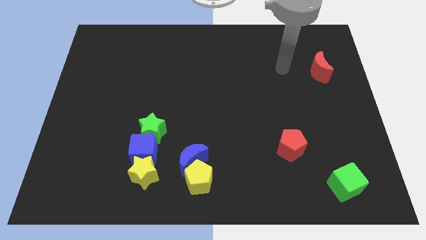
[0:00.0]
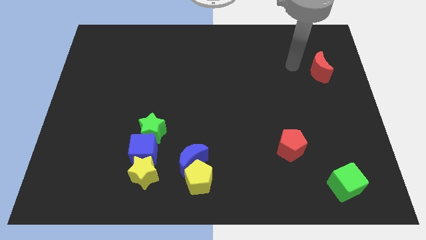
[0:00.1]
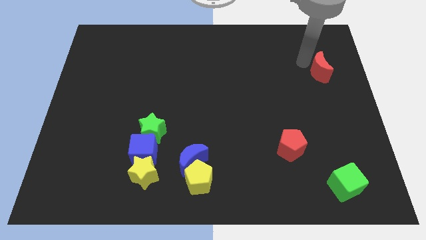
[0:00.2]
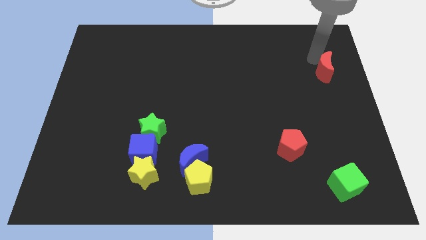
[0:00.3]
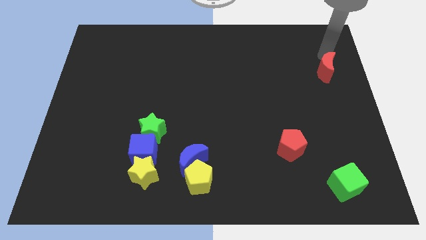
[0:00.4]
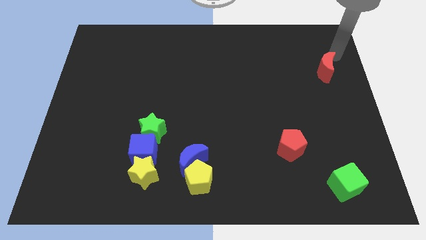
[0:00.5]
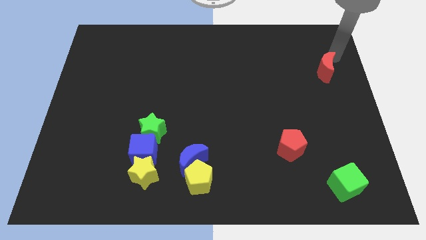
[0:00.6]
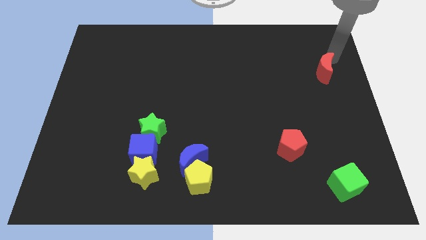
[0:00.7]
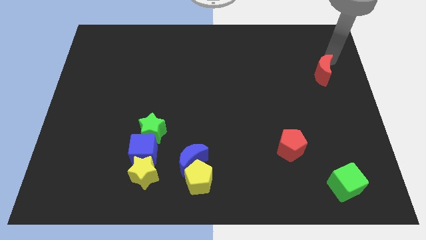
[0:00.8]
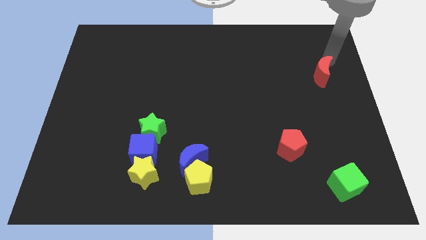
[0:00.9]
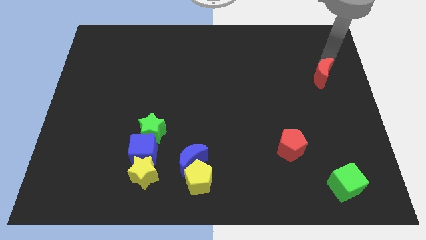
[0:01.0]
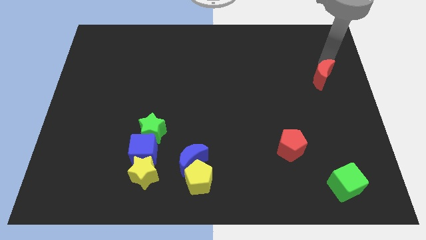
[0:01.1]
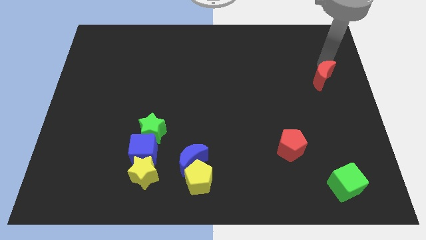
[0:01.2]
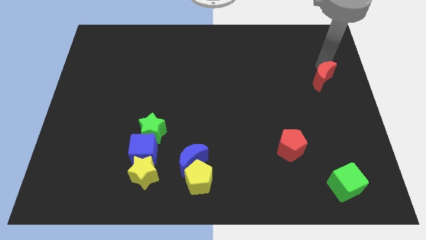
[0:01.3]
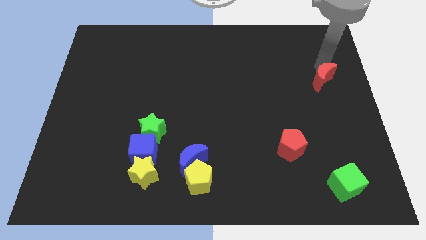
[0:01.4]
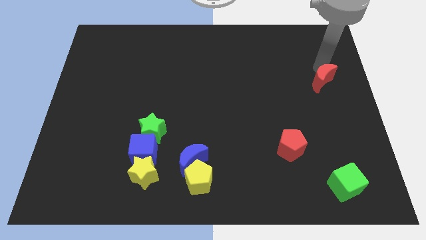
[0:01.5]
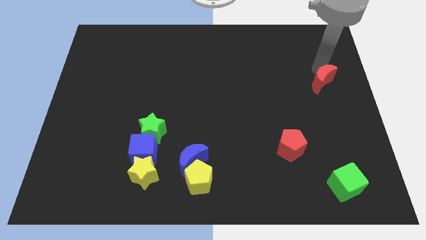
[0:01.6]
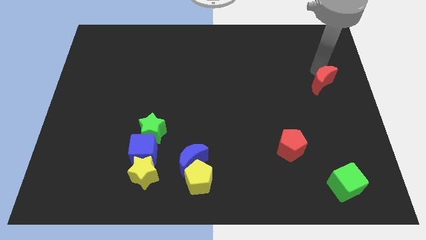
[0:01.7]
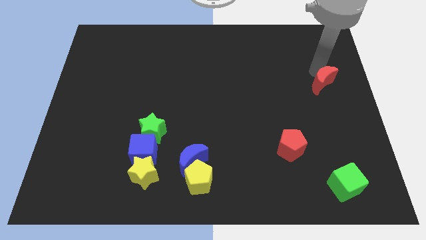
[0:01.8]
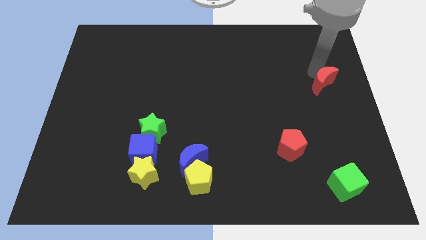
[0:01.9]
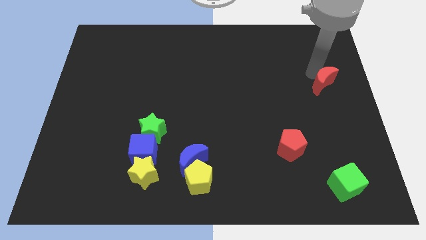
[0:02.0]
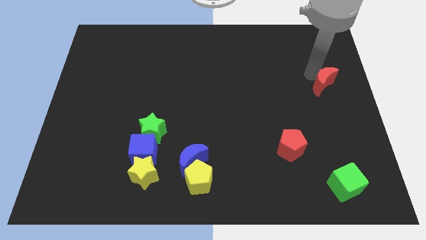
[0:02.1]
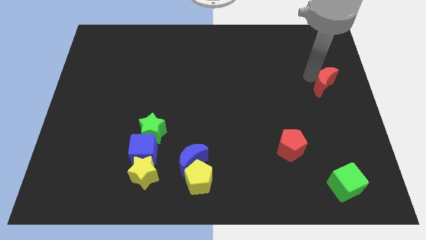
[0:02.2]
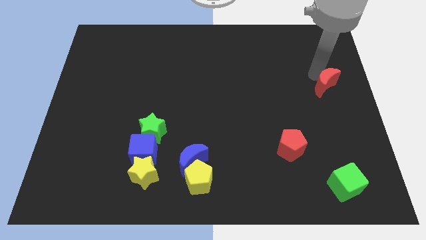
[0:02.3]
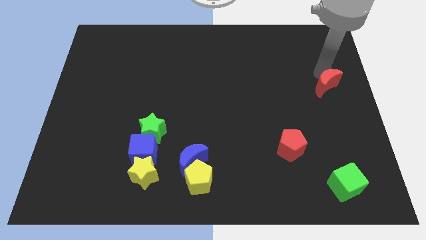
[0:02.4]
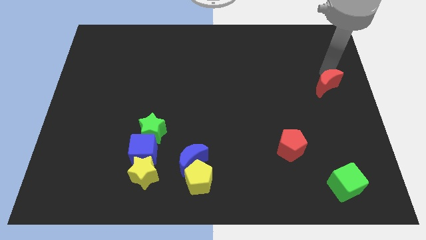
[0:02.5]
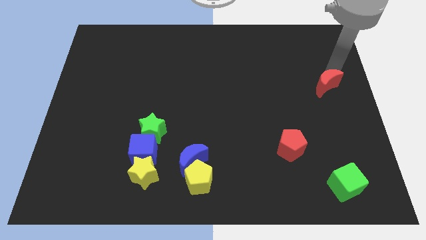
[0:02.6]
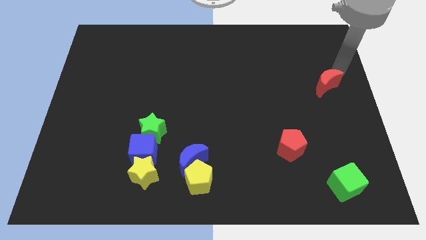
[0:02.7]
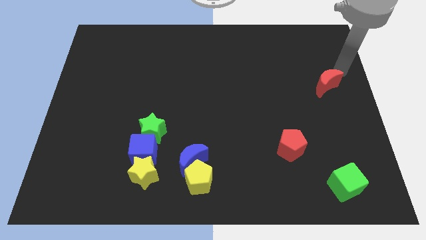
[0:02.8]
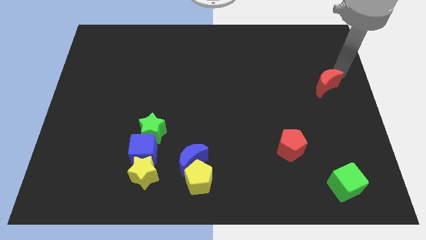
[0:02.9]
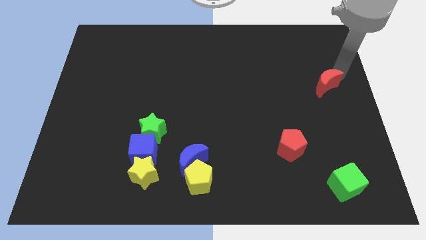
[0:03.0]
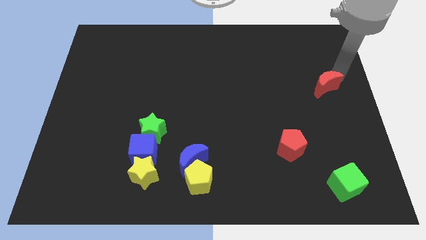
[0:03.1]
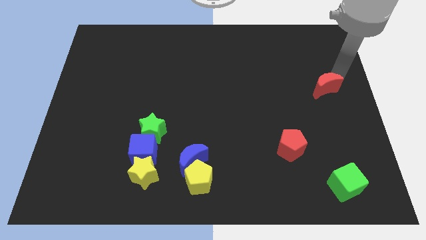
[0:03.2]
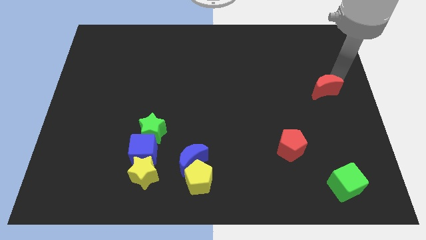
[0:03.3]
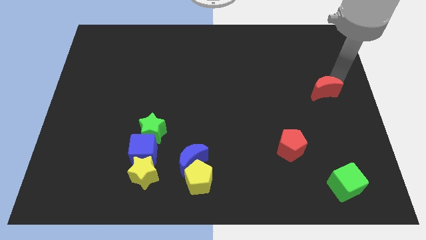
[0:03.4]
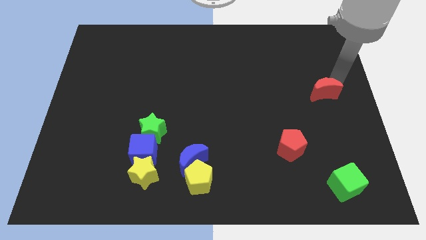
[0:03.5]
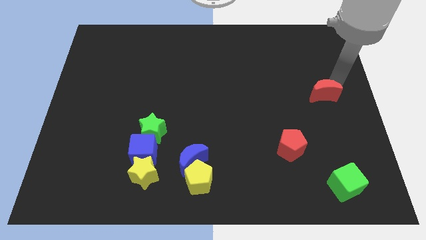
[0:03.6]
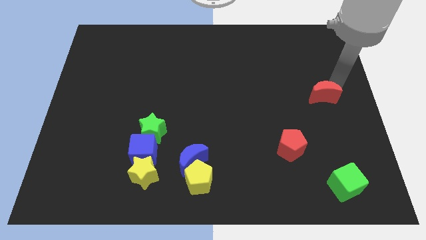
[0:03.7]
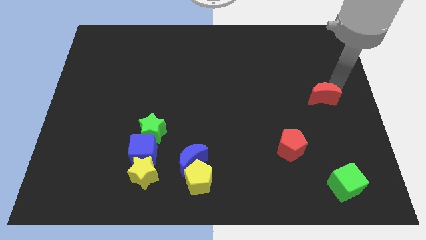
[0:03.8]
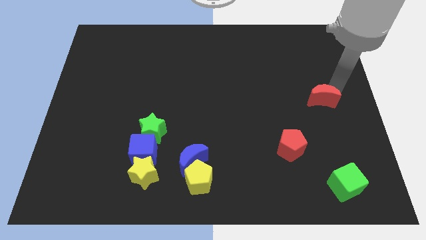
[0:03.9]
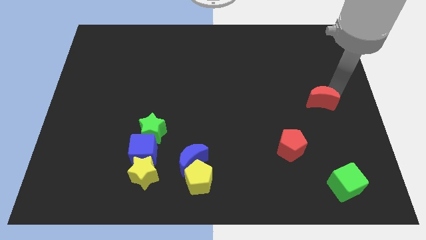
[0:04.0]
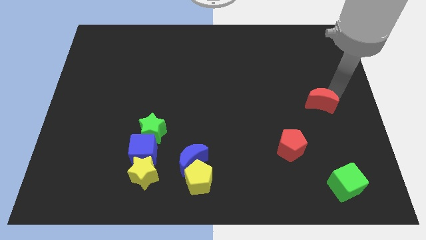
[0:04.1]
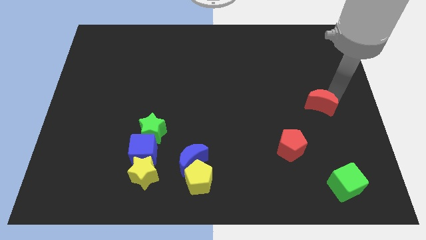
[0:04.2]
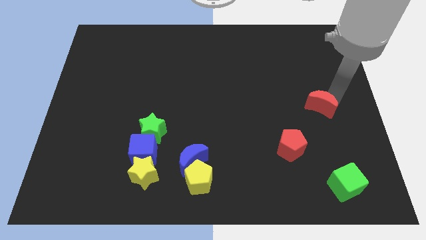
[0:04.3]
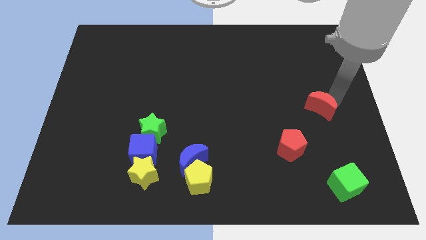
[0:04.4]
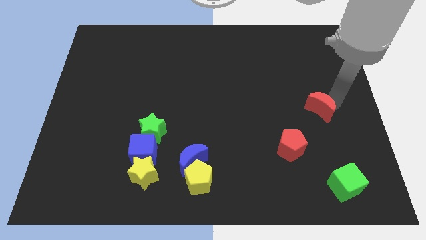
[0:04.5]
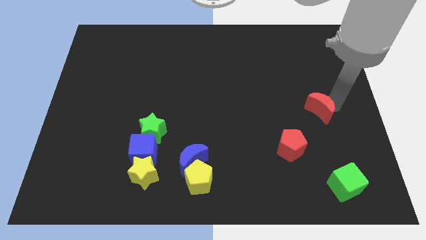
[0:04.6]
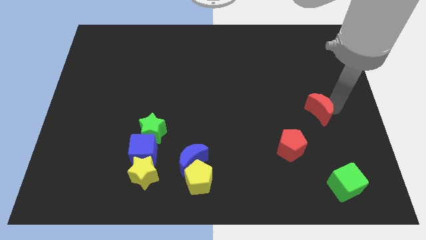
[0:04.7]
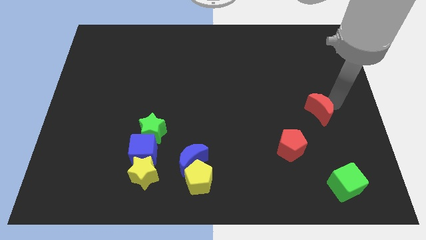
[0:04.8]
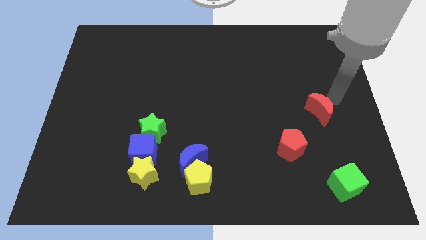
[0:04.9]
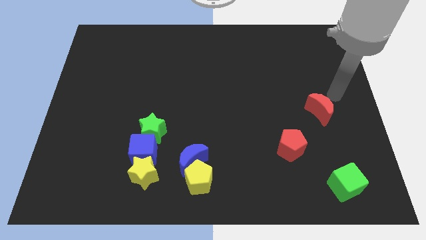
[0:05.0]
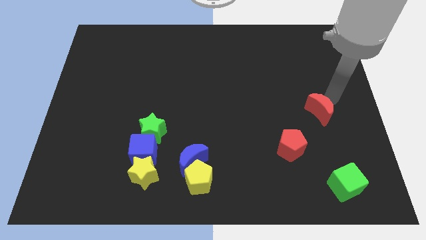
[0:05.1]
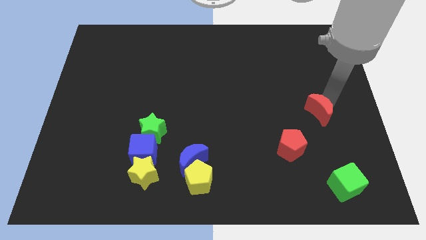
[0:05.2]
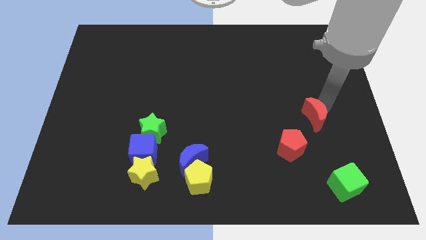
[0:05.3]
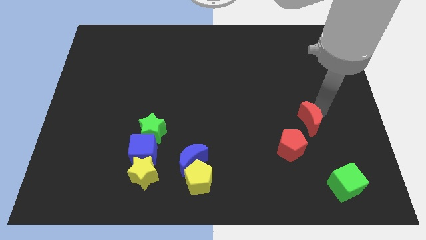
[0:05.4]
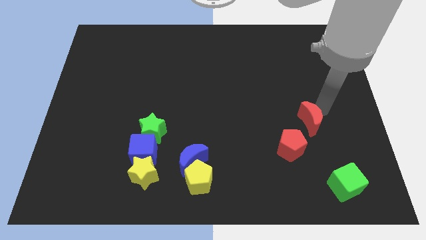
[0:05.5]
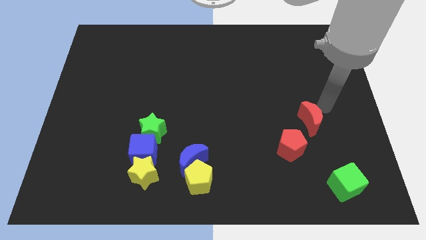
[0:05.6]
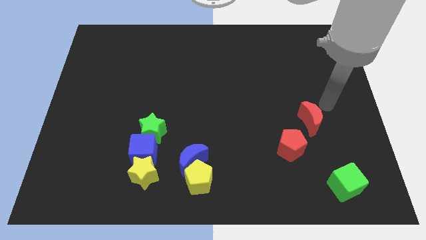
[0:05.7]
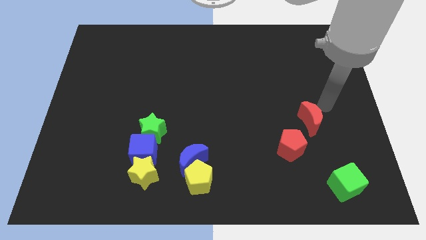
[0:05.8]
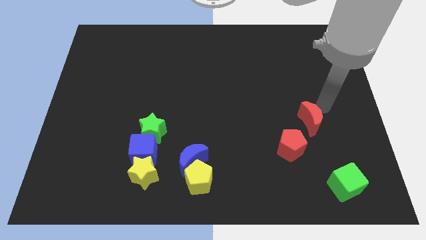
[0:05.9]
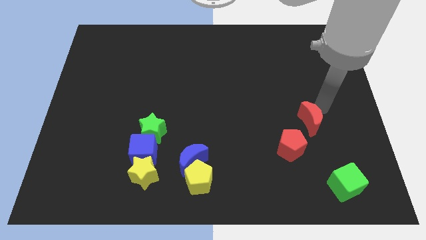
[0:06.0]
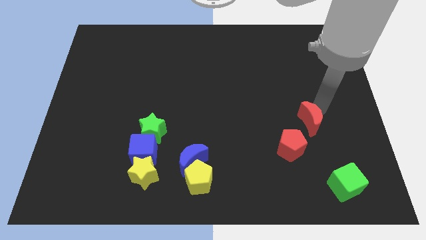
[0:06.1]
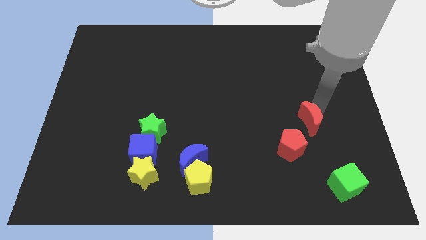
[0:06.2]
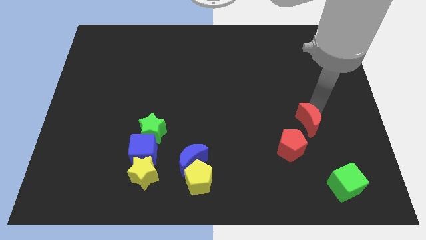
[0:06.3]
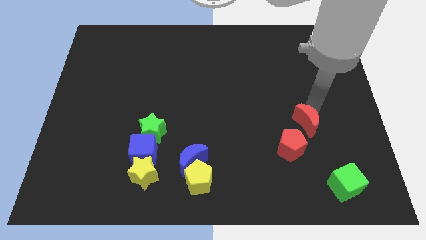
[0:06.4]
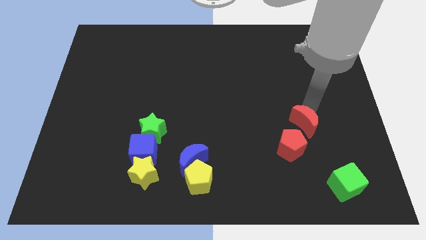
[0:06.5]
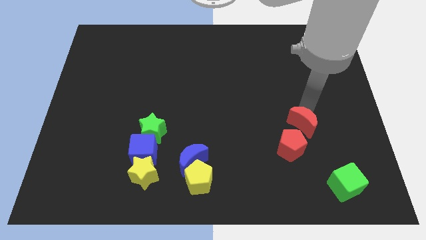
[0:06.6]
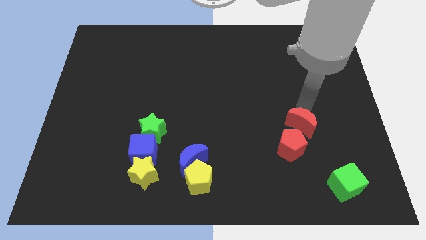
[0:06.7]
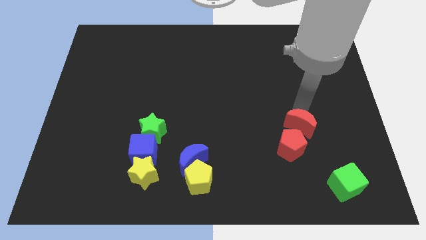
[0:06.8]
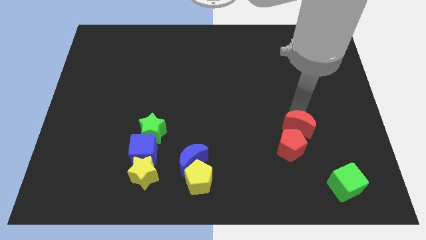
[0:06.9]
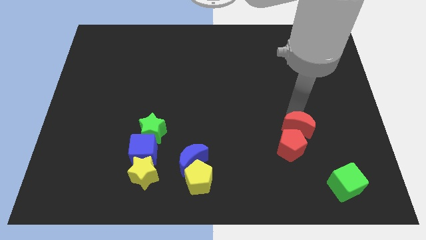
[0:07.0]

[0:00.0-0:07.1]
push the red moon next to the red pentagon
